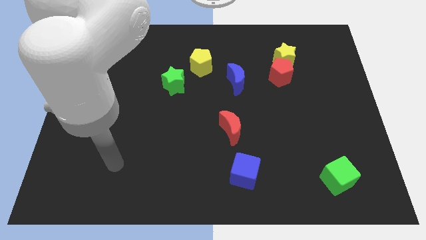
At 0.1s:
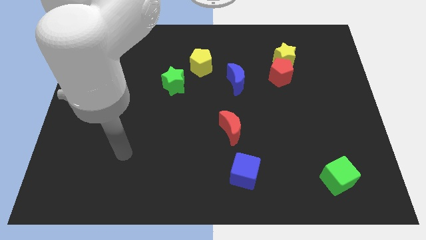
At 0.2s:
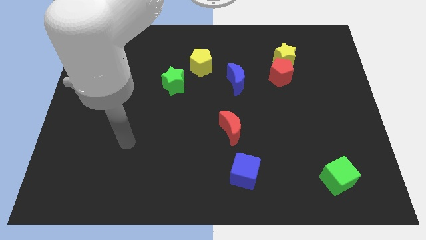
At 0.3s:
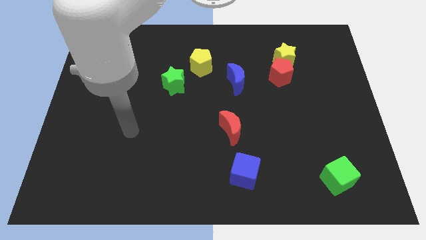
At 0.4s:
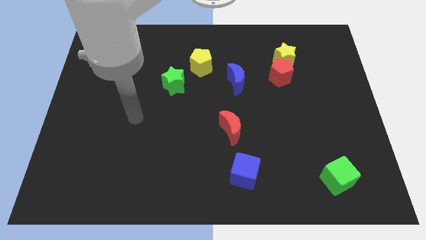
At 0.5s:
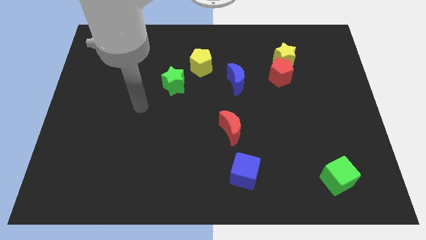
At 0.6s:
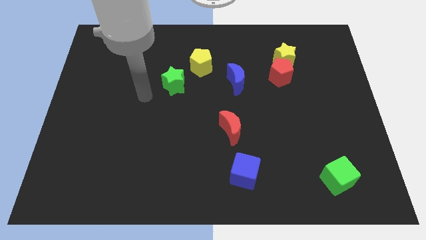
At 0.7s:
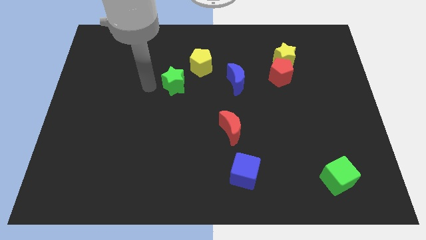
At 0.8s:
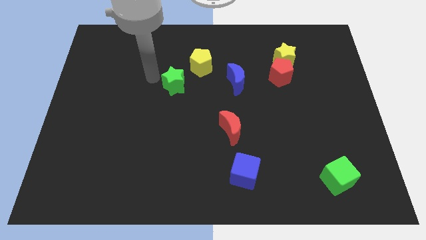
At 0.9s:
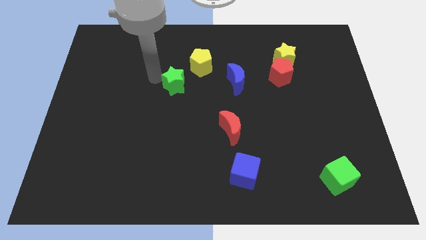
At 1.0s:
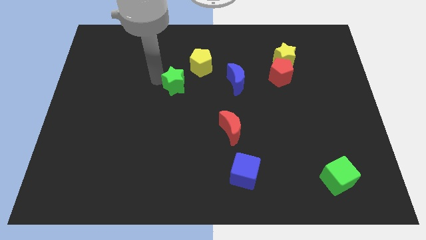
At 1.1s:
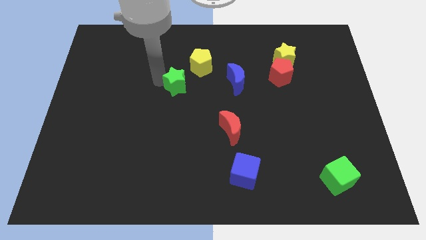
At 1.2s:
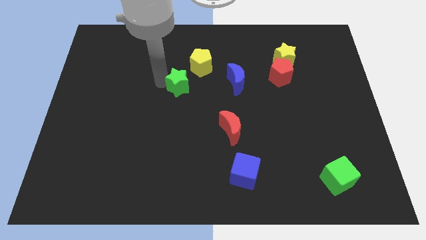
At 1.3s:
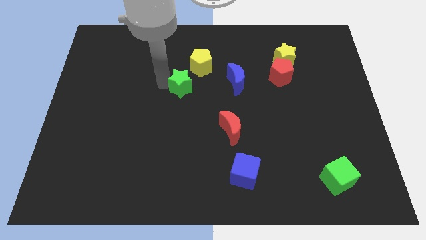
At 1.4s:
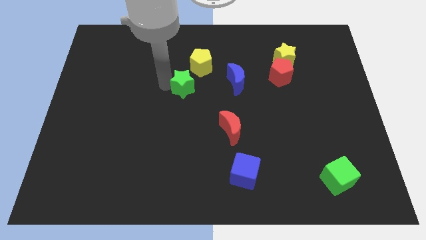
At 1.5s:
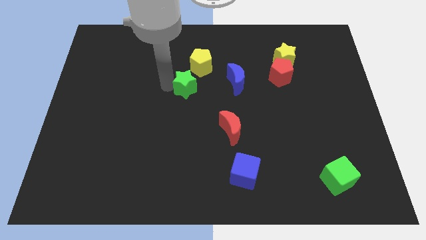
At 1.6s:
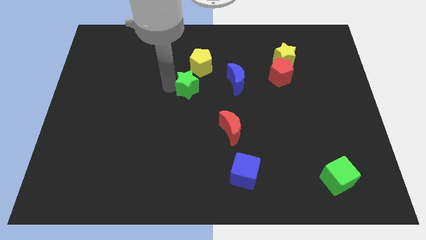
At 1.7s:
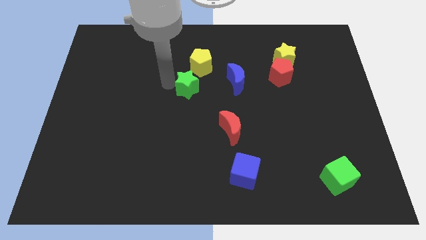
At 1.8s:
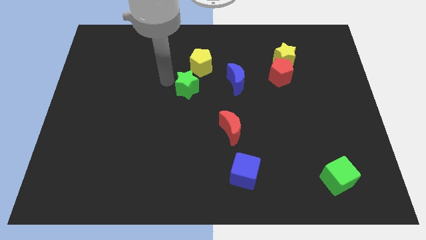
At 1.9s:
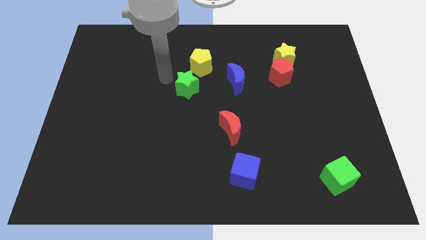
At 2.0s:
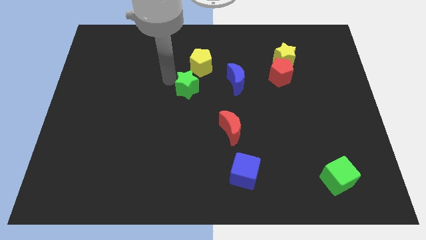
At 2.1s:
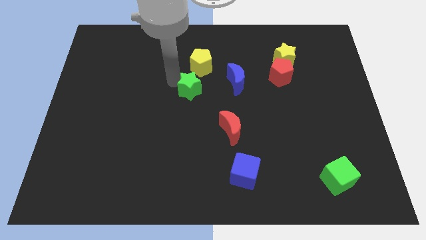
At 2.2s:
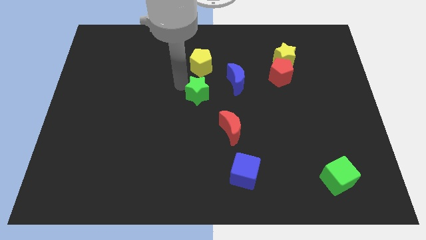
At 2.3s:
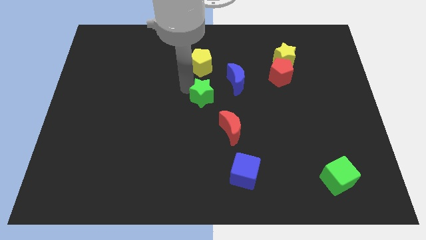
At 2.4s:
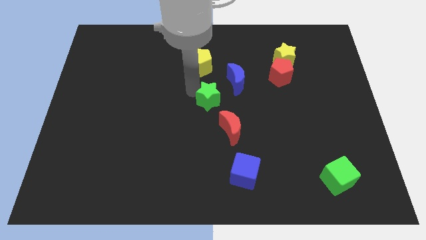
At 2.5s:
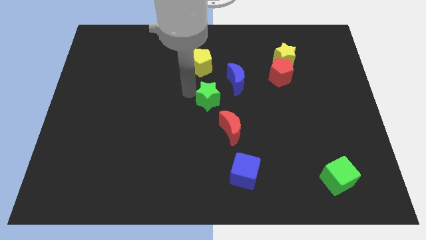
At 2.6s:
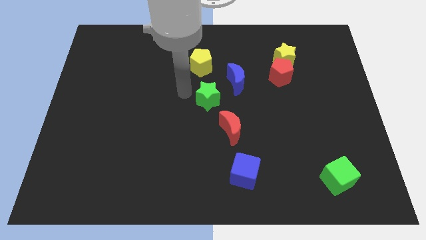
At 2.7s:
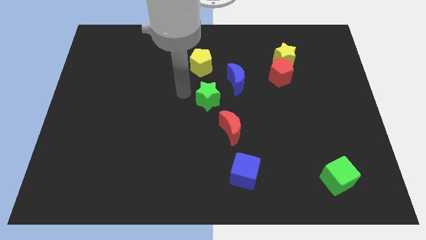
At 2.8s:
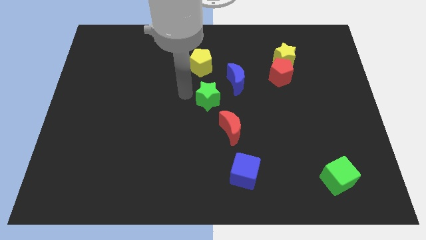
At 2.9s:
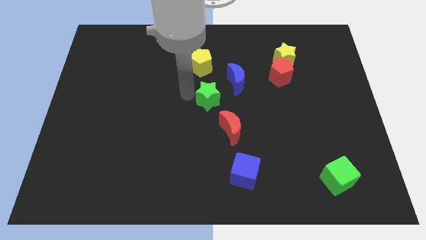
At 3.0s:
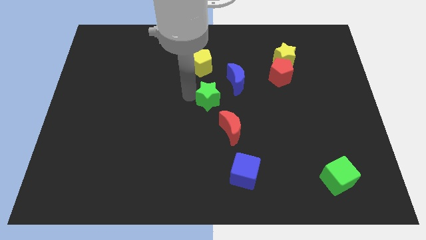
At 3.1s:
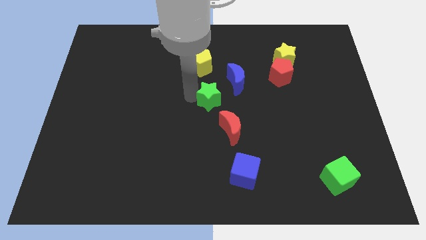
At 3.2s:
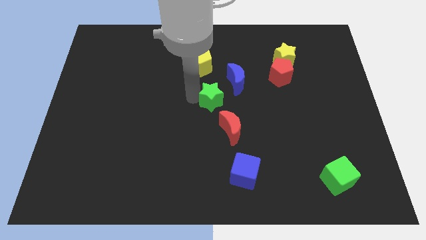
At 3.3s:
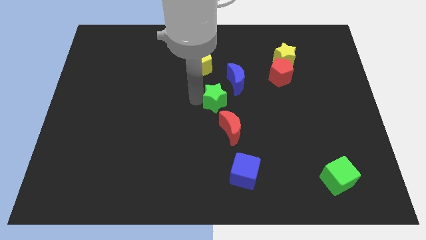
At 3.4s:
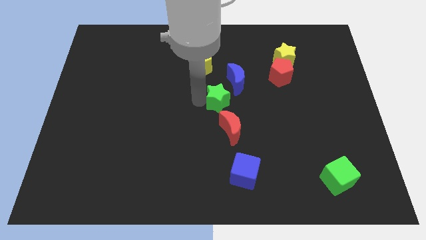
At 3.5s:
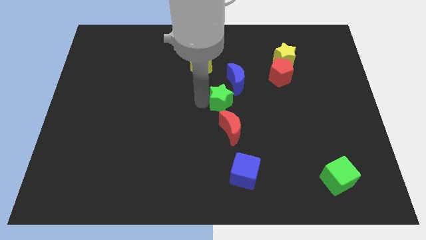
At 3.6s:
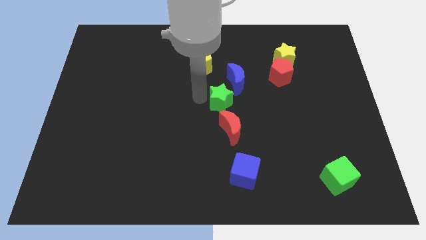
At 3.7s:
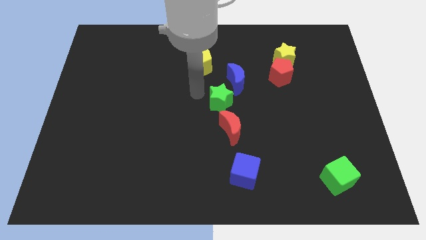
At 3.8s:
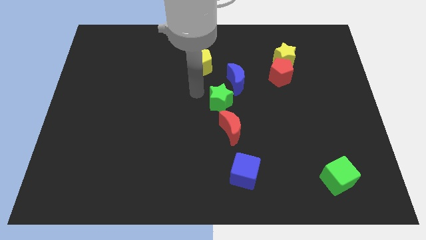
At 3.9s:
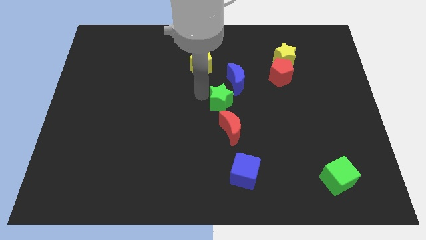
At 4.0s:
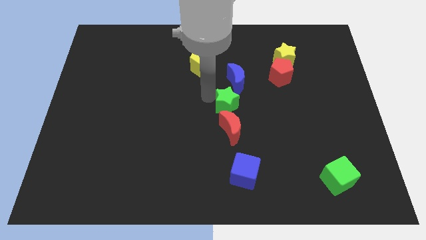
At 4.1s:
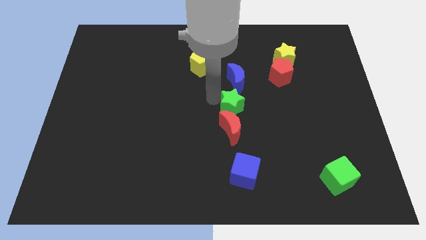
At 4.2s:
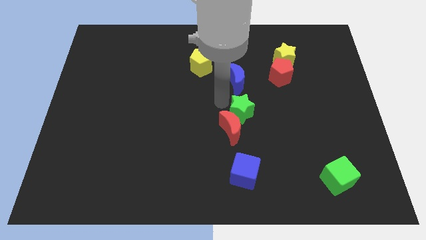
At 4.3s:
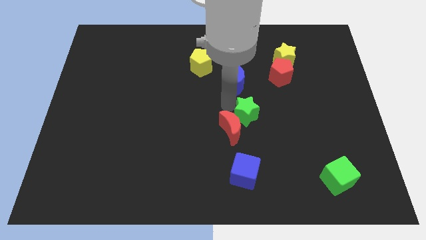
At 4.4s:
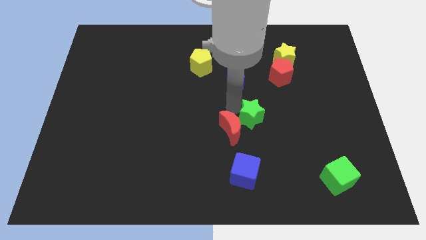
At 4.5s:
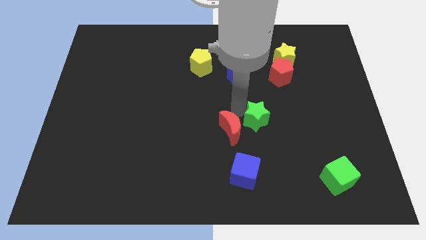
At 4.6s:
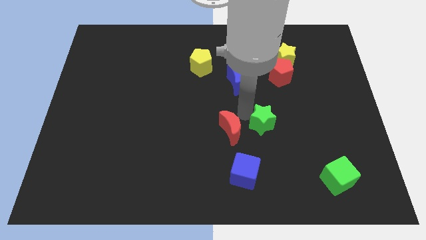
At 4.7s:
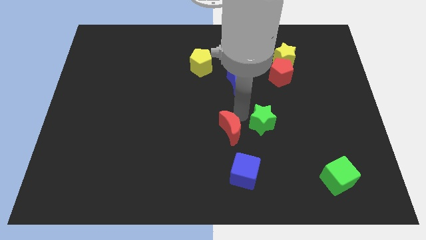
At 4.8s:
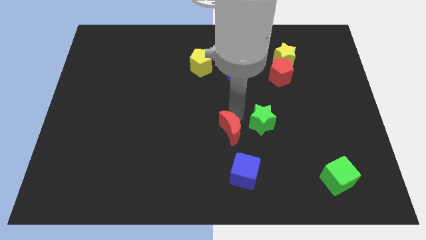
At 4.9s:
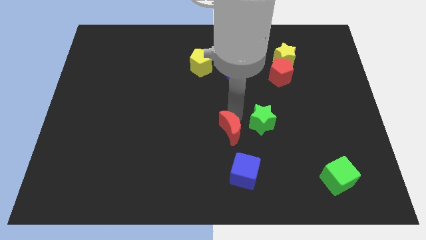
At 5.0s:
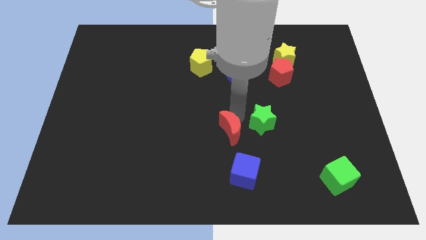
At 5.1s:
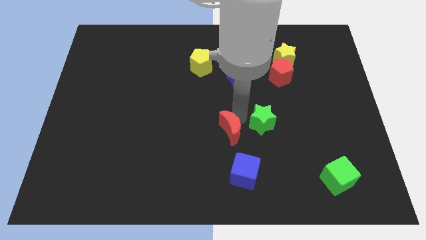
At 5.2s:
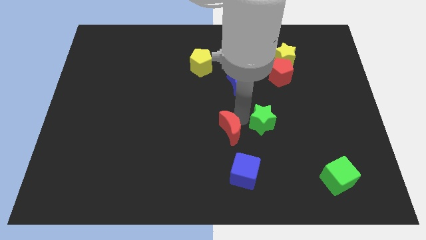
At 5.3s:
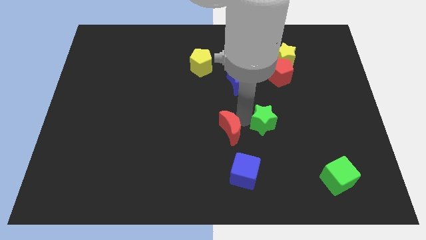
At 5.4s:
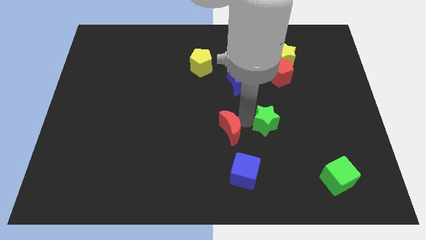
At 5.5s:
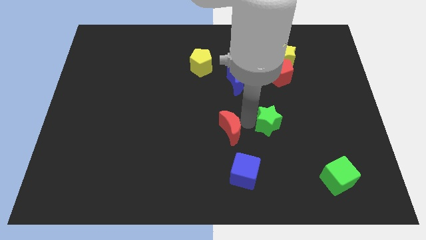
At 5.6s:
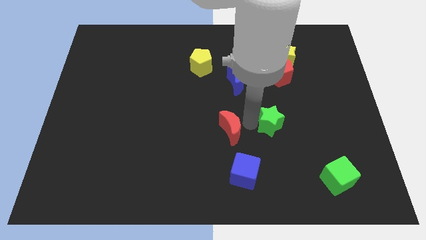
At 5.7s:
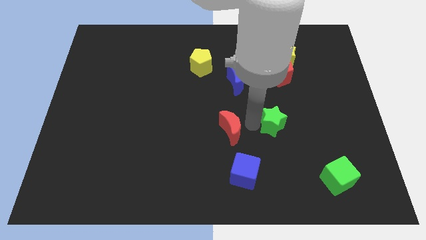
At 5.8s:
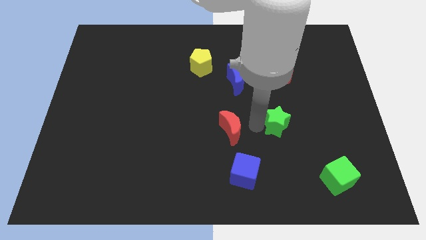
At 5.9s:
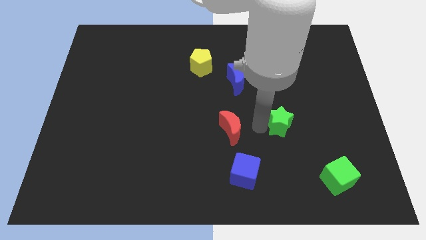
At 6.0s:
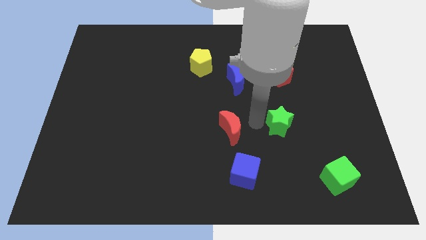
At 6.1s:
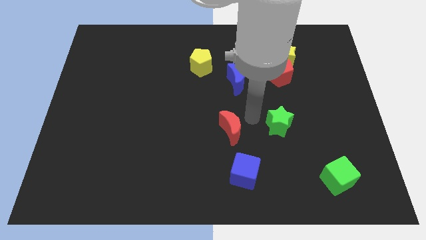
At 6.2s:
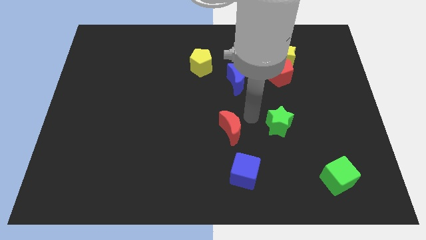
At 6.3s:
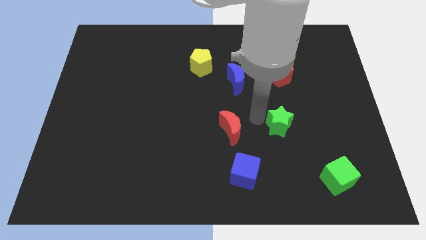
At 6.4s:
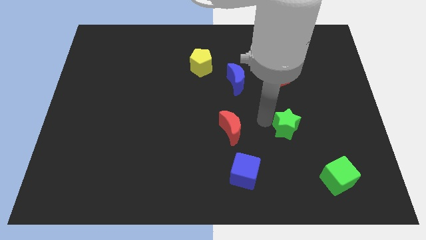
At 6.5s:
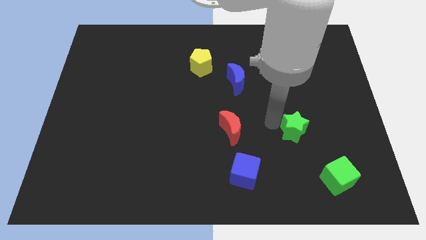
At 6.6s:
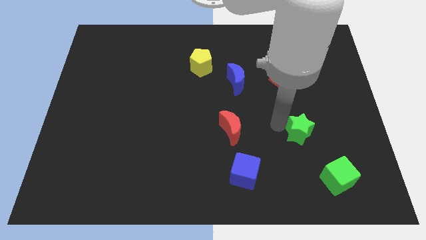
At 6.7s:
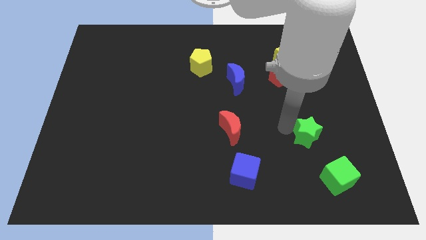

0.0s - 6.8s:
push the green star to the top of the green cube
